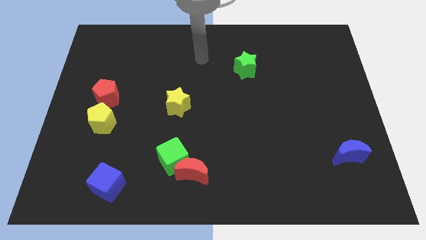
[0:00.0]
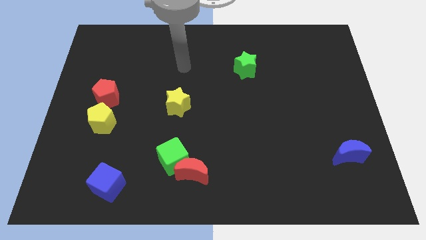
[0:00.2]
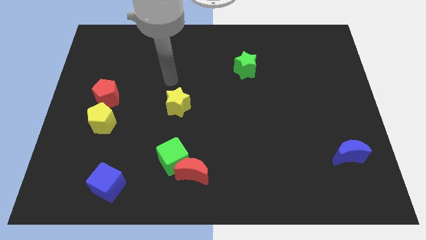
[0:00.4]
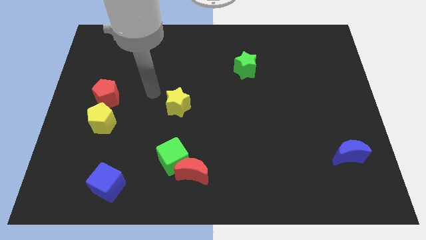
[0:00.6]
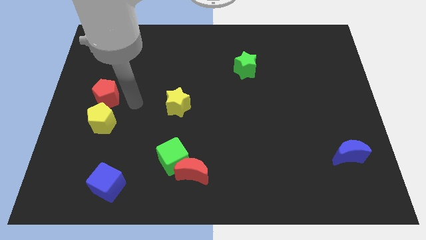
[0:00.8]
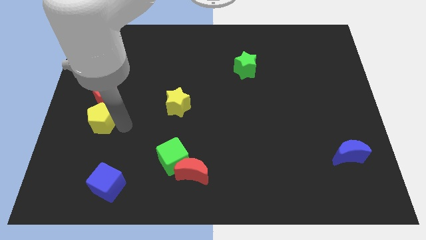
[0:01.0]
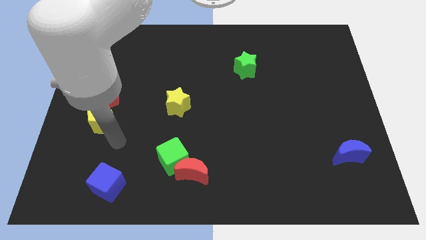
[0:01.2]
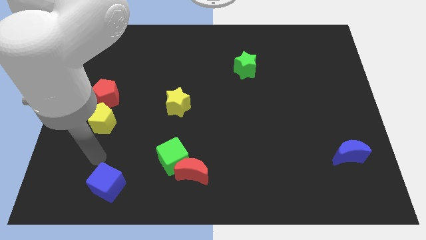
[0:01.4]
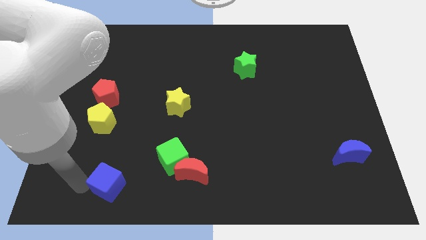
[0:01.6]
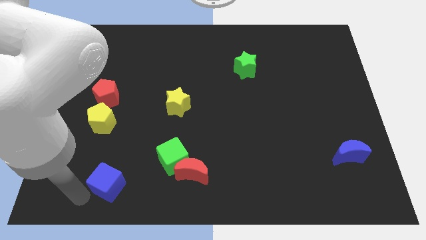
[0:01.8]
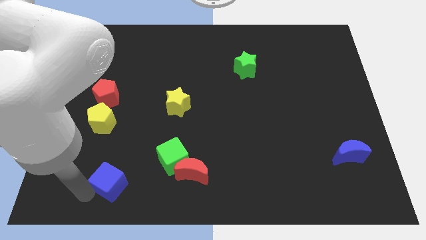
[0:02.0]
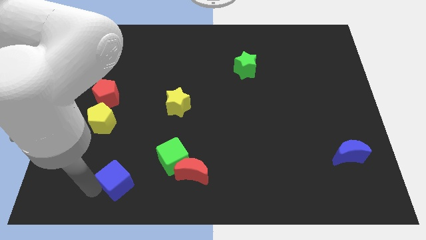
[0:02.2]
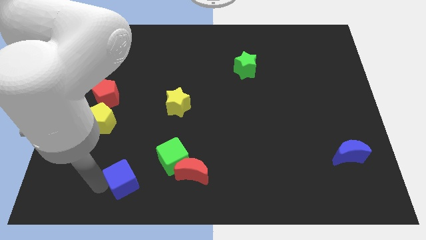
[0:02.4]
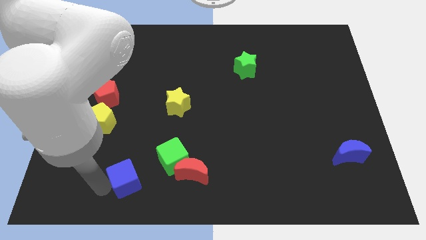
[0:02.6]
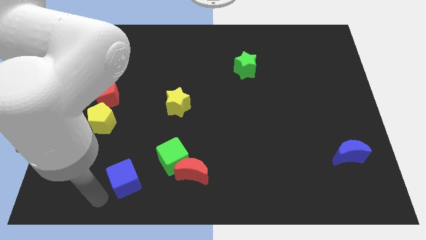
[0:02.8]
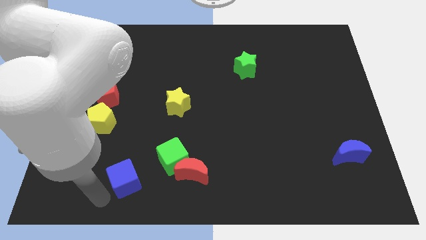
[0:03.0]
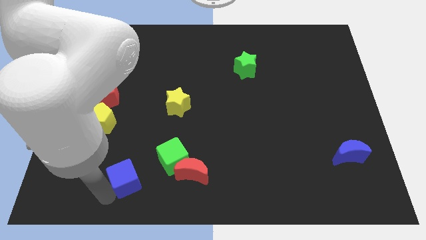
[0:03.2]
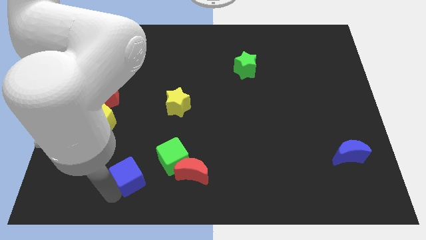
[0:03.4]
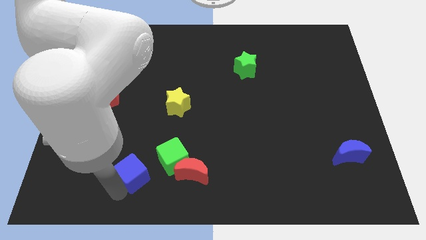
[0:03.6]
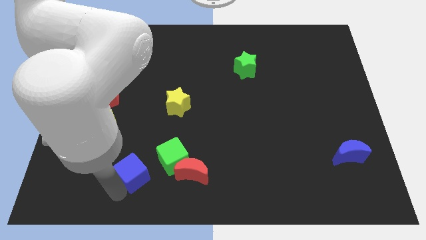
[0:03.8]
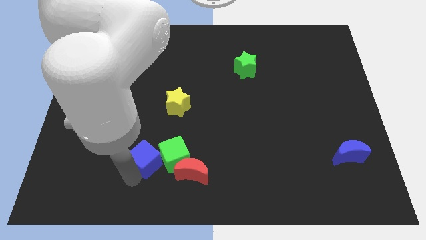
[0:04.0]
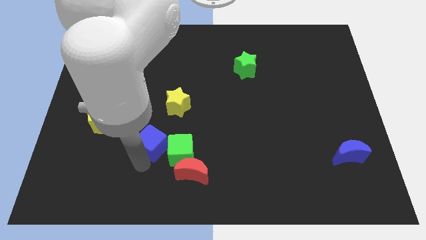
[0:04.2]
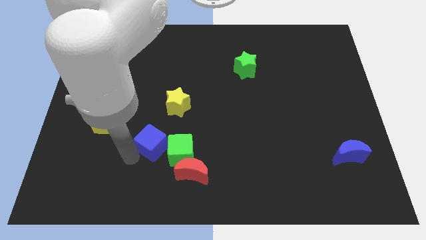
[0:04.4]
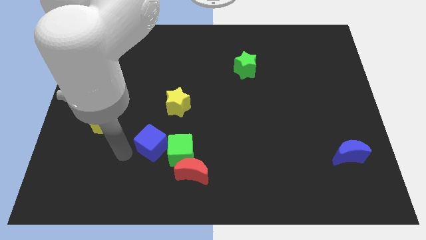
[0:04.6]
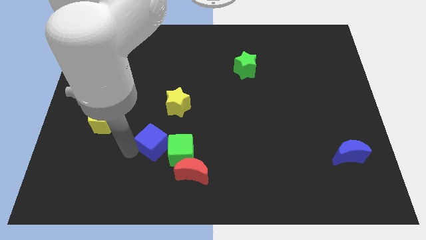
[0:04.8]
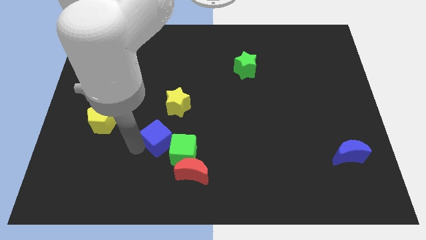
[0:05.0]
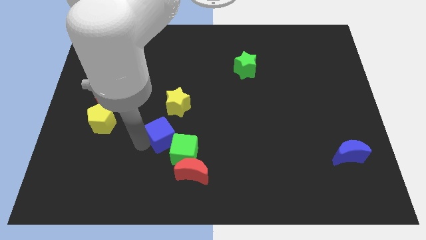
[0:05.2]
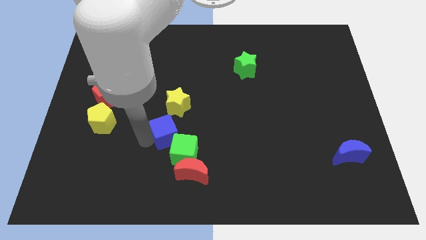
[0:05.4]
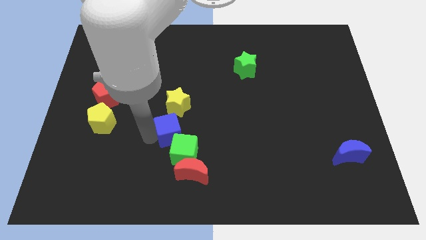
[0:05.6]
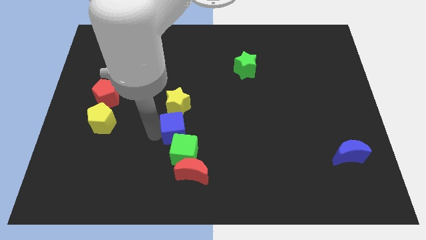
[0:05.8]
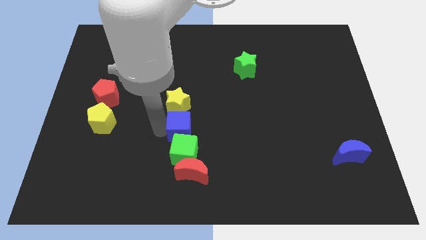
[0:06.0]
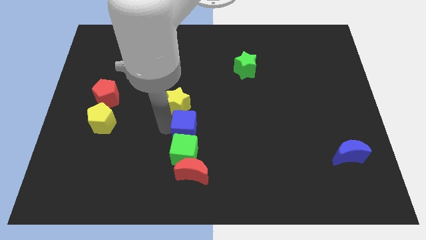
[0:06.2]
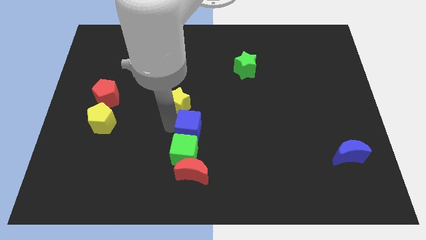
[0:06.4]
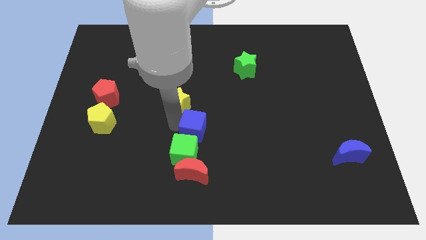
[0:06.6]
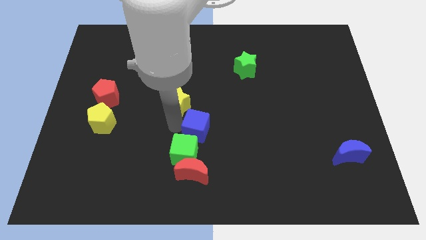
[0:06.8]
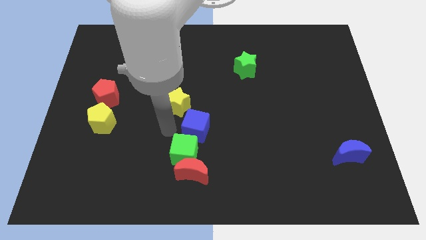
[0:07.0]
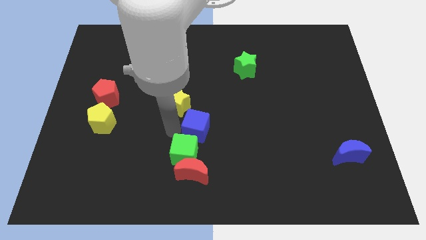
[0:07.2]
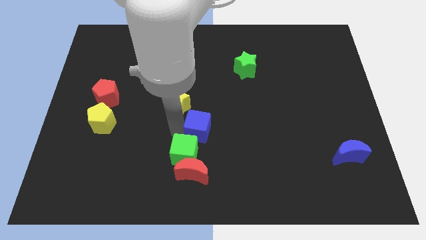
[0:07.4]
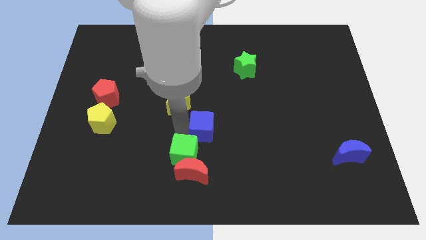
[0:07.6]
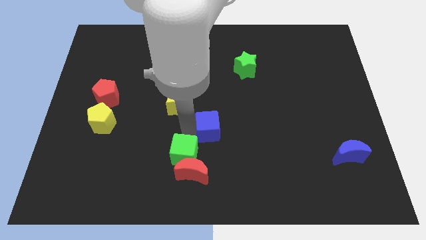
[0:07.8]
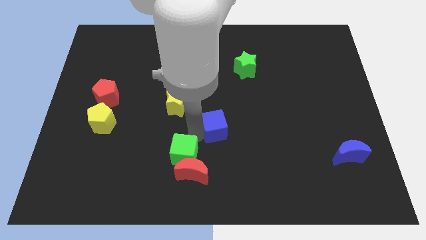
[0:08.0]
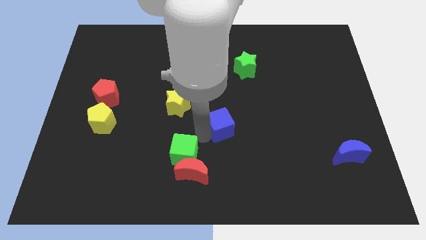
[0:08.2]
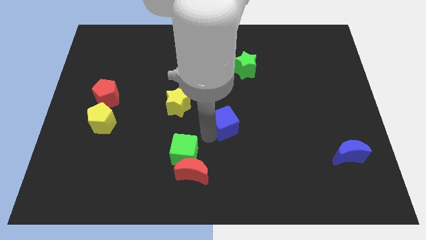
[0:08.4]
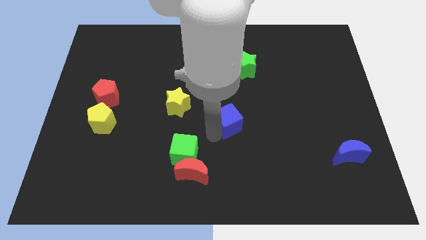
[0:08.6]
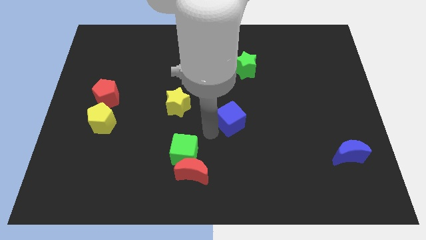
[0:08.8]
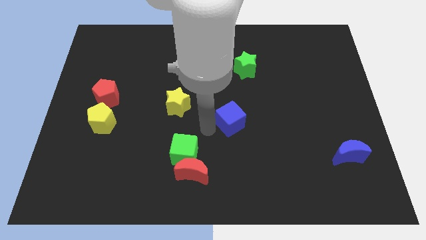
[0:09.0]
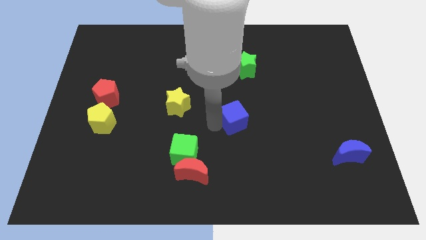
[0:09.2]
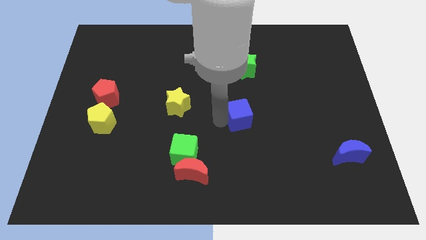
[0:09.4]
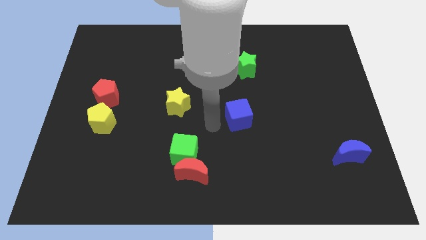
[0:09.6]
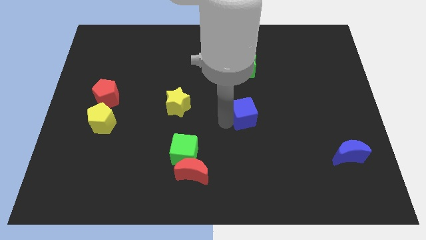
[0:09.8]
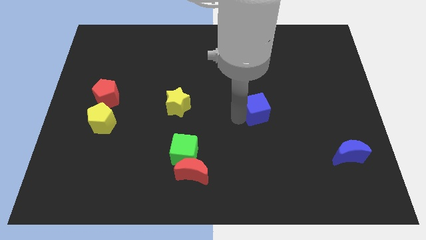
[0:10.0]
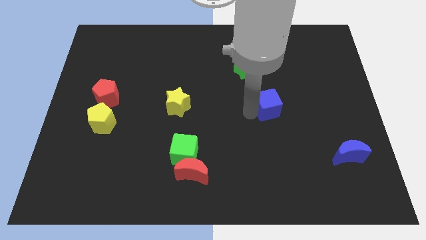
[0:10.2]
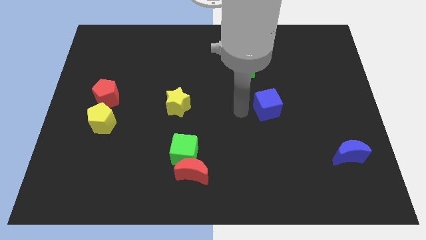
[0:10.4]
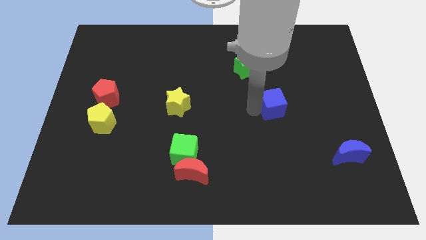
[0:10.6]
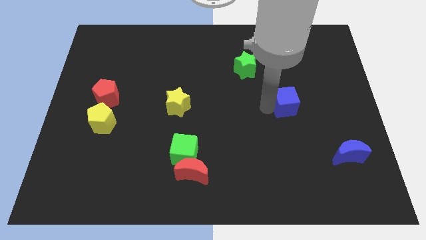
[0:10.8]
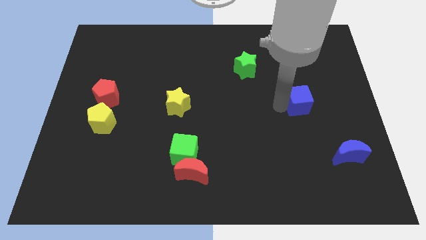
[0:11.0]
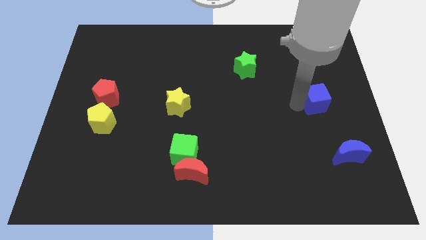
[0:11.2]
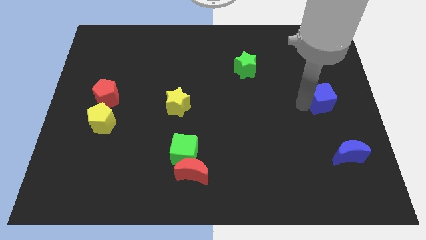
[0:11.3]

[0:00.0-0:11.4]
put the blue cube to the right side of the board
